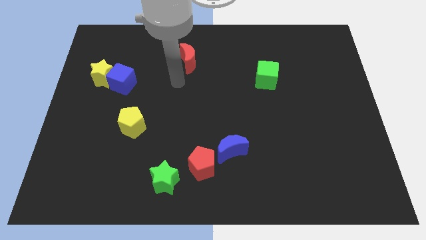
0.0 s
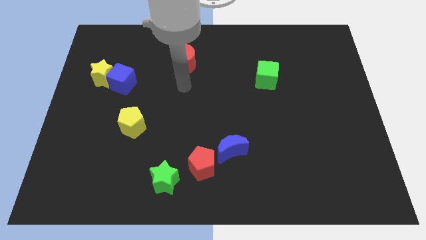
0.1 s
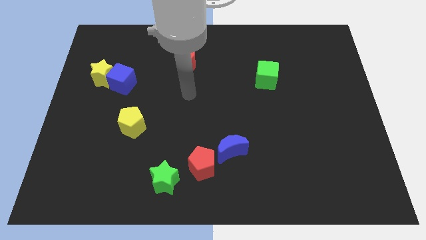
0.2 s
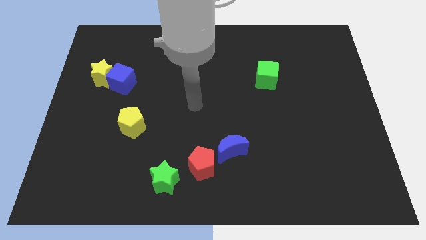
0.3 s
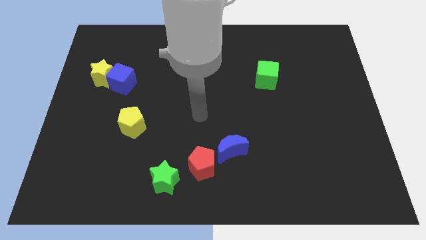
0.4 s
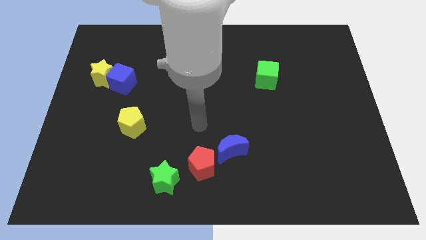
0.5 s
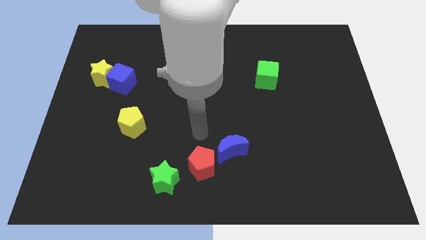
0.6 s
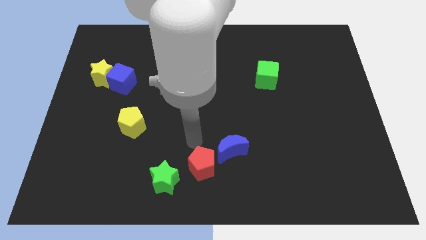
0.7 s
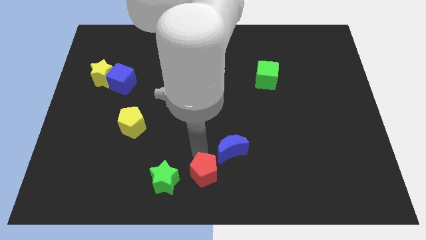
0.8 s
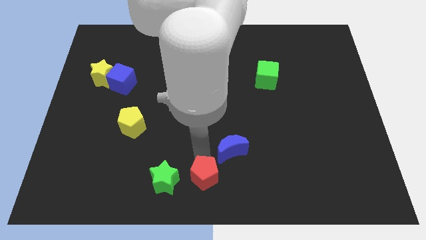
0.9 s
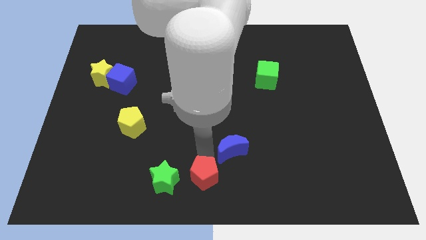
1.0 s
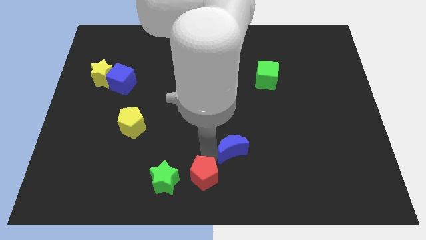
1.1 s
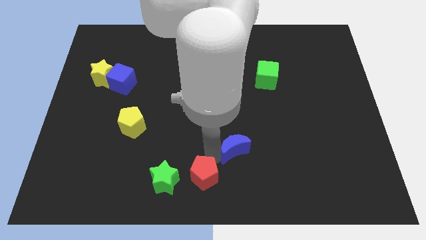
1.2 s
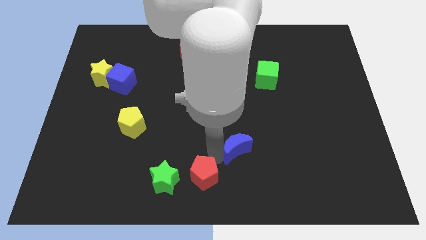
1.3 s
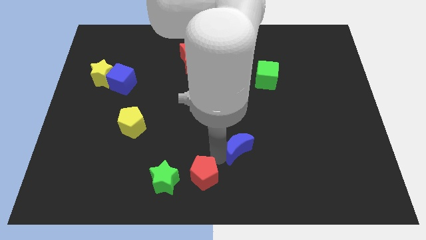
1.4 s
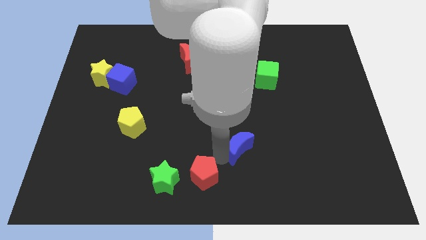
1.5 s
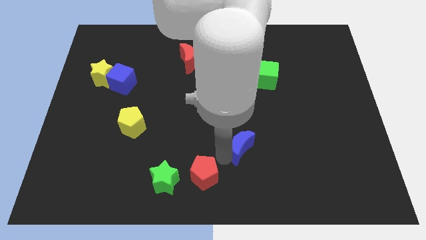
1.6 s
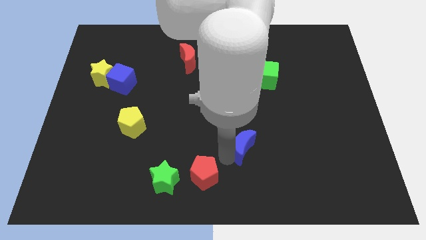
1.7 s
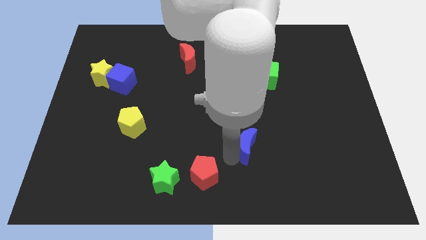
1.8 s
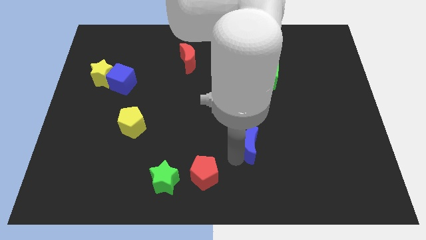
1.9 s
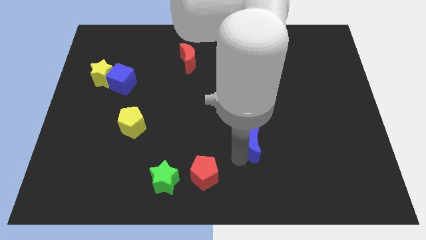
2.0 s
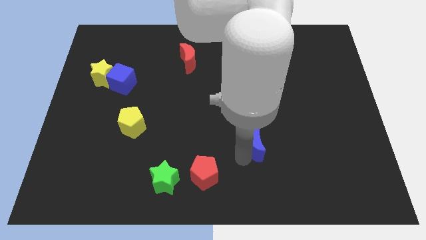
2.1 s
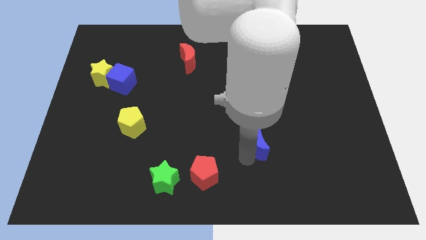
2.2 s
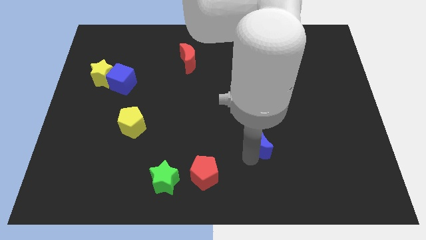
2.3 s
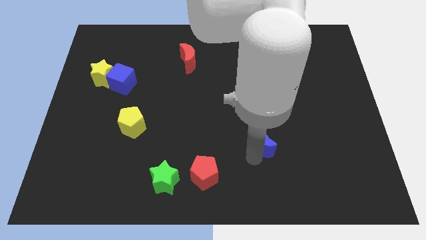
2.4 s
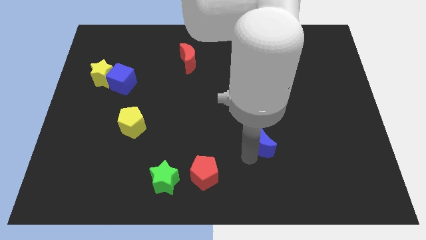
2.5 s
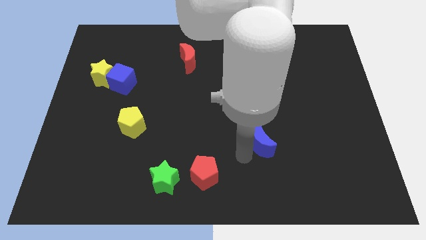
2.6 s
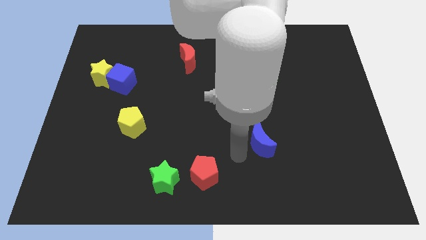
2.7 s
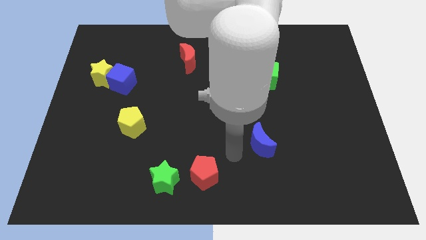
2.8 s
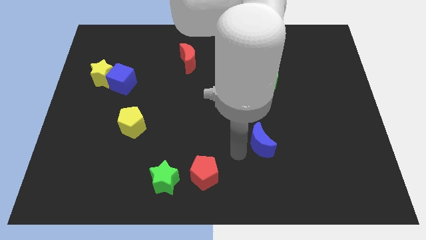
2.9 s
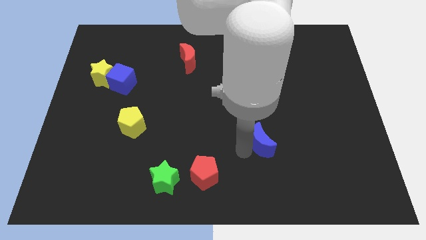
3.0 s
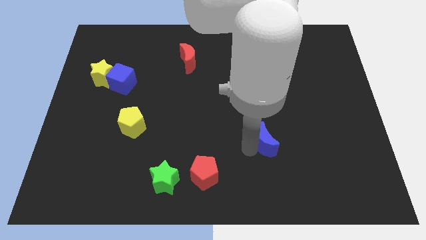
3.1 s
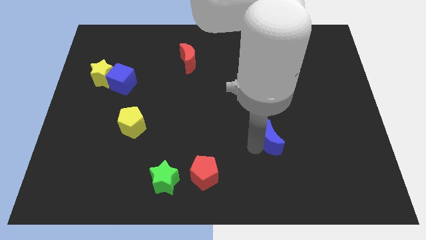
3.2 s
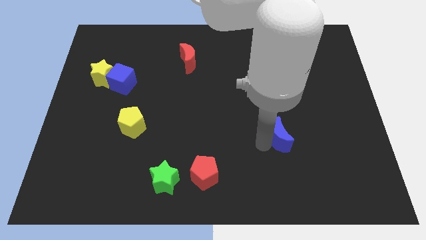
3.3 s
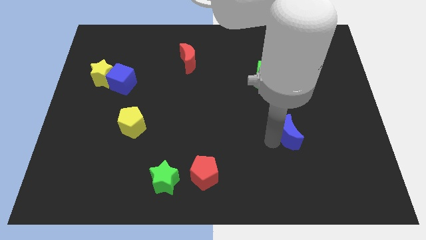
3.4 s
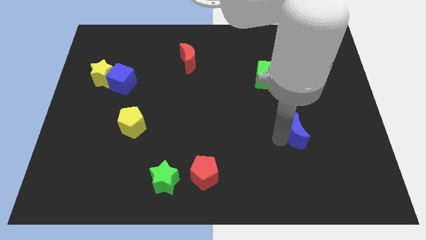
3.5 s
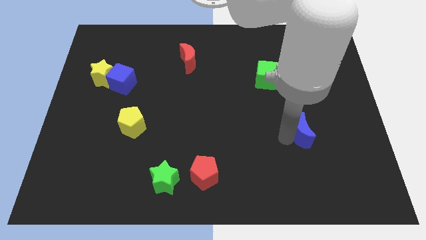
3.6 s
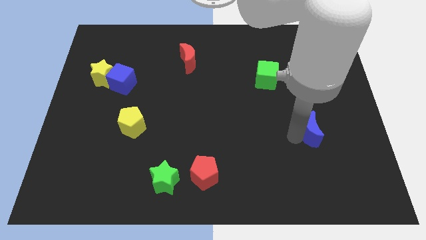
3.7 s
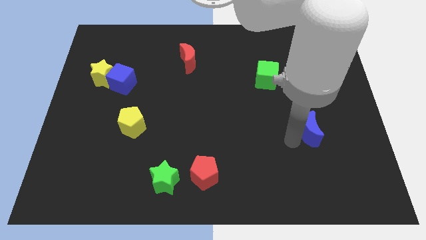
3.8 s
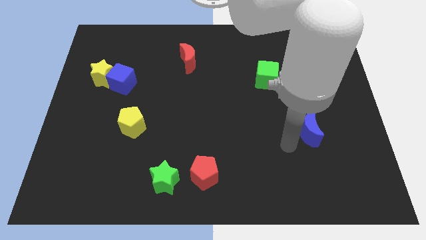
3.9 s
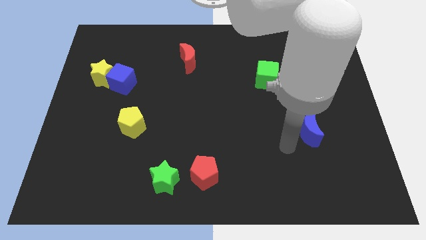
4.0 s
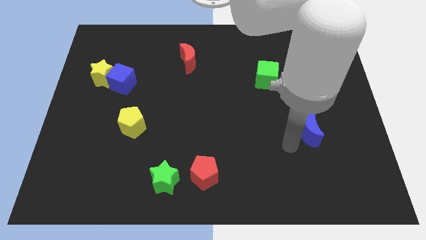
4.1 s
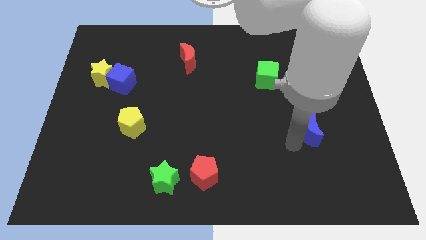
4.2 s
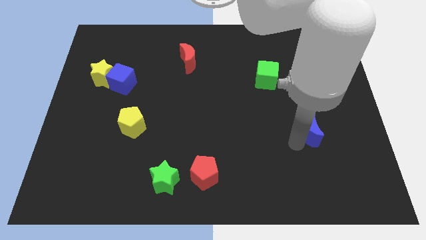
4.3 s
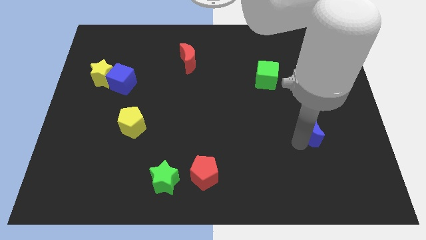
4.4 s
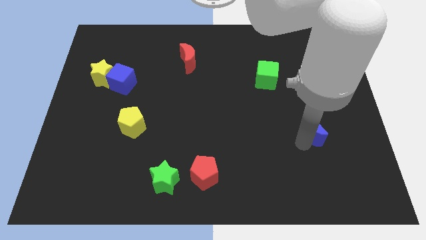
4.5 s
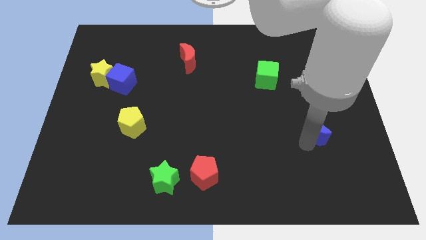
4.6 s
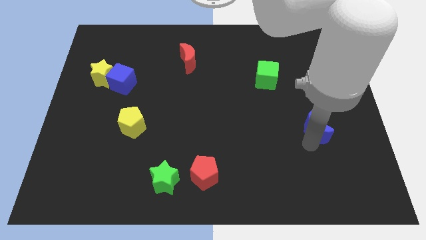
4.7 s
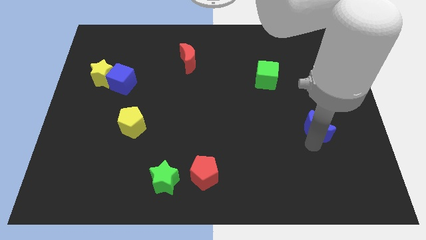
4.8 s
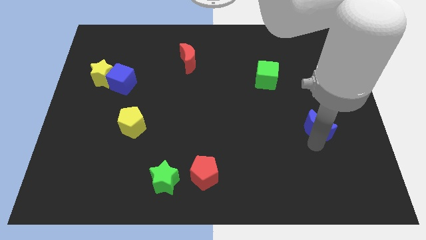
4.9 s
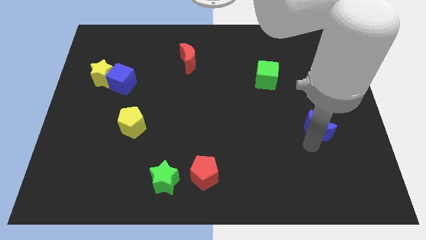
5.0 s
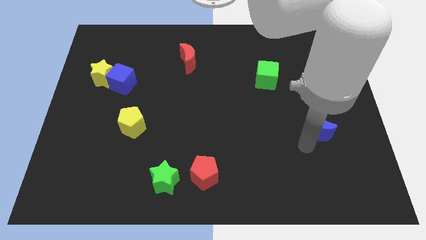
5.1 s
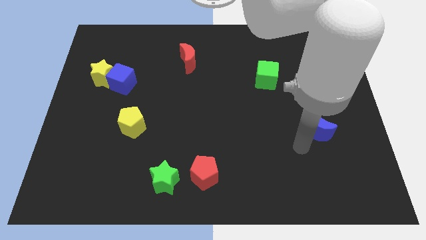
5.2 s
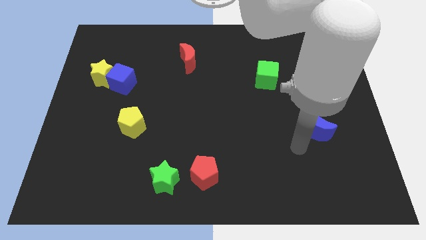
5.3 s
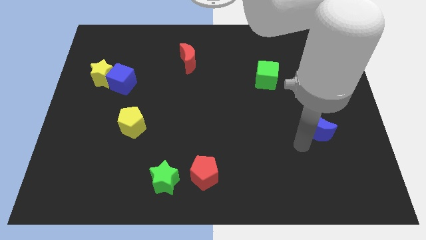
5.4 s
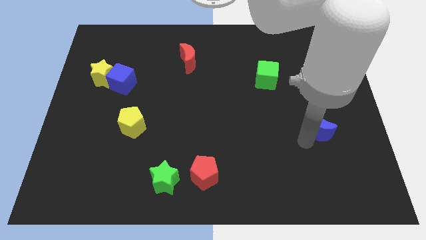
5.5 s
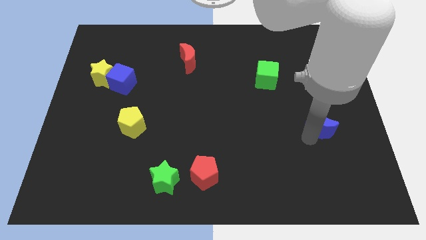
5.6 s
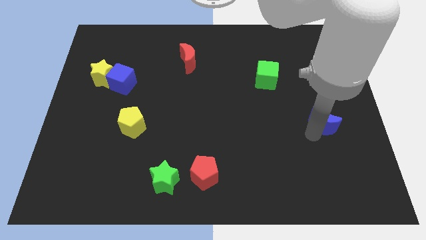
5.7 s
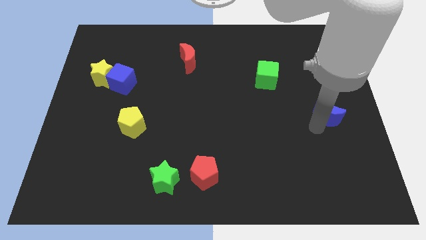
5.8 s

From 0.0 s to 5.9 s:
slide the blue moon to the right side of the board
